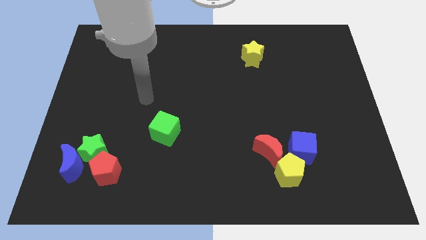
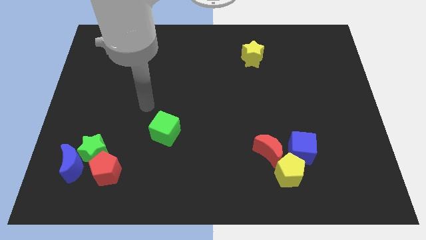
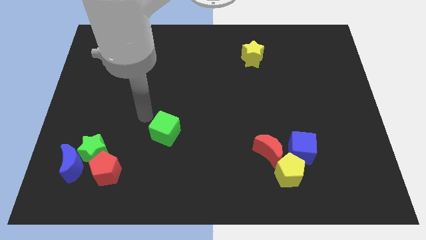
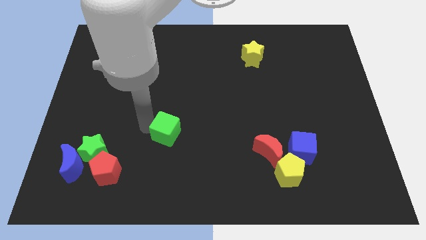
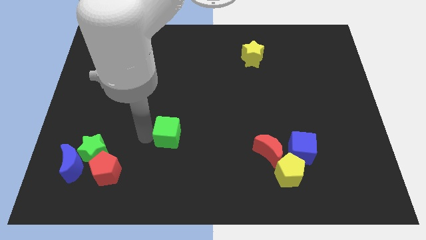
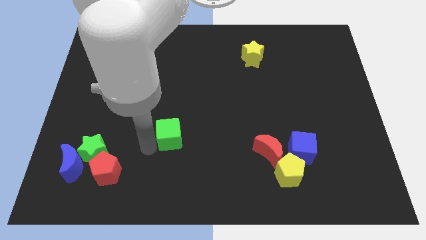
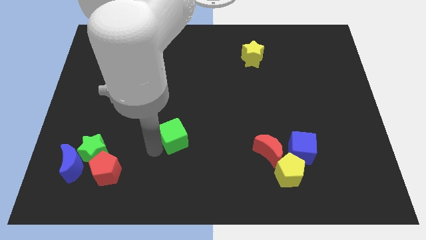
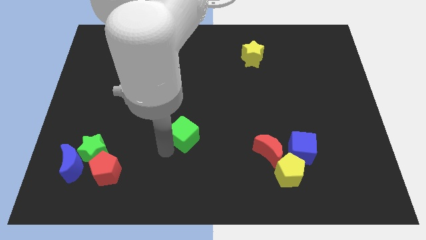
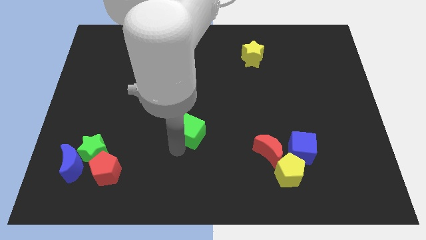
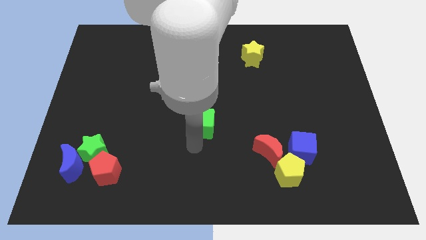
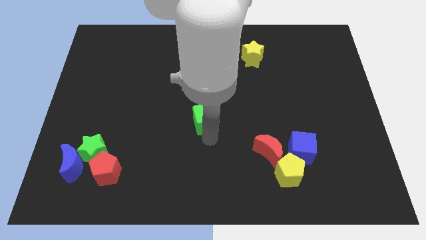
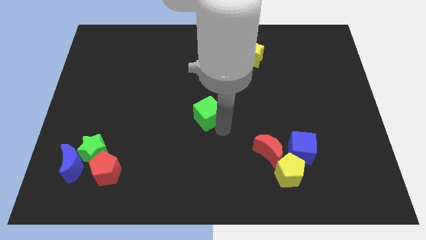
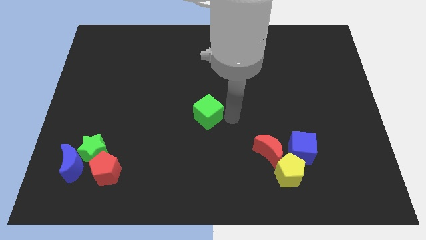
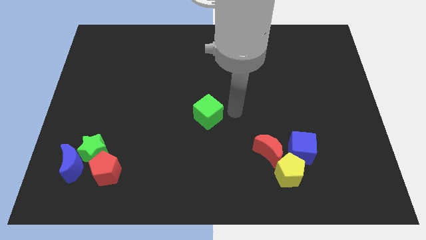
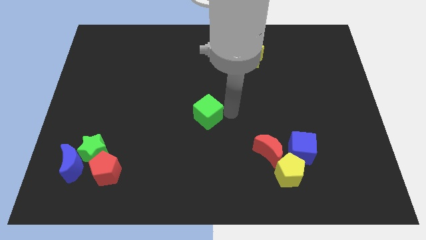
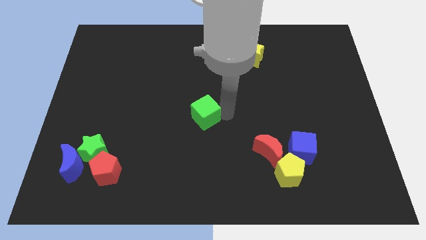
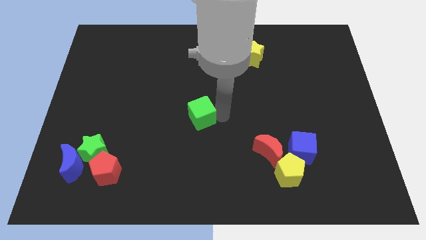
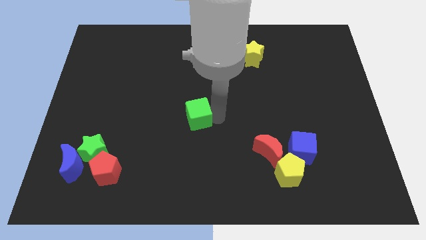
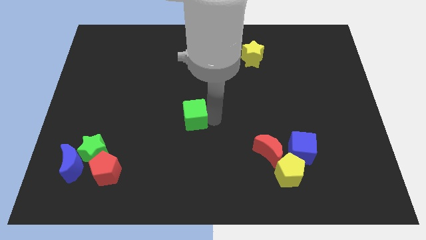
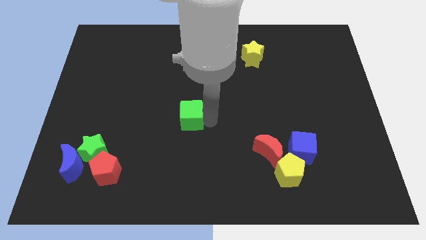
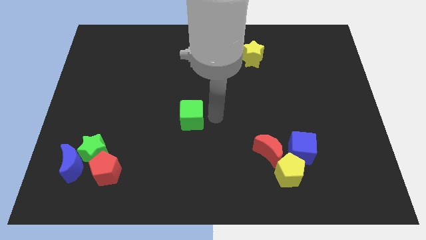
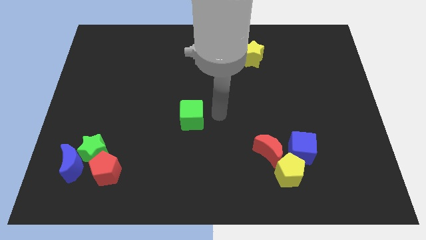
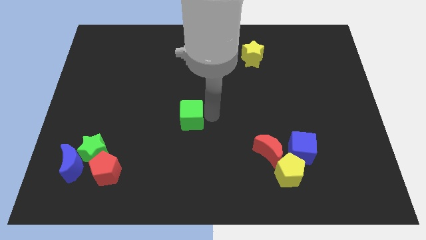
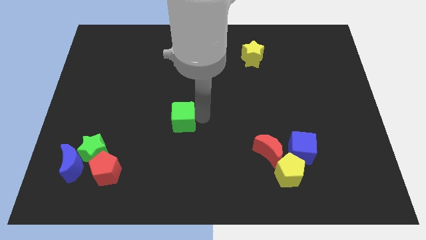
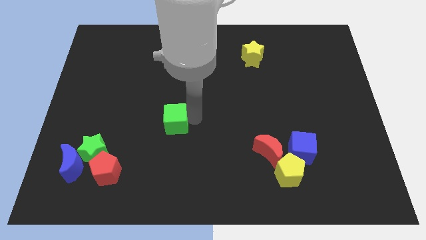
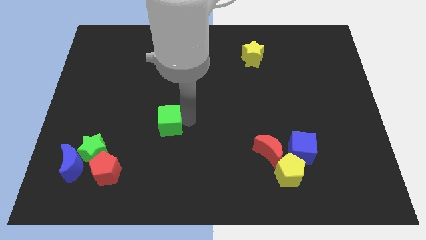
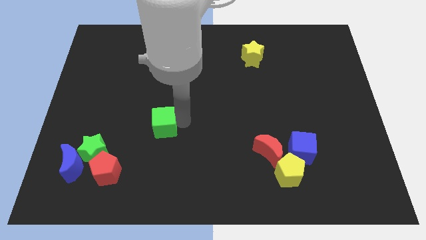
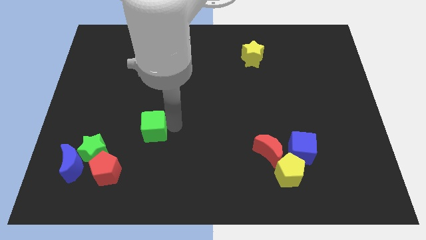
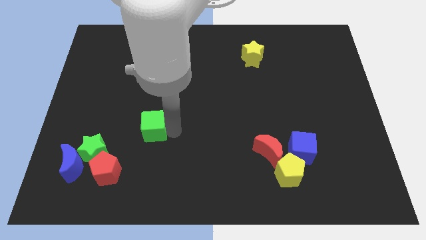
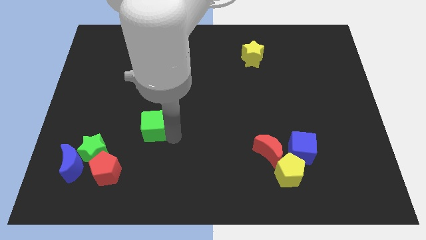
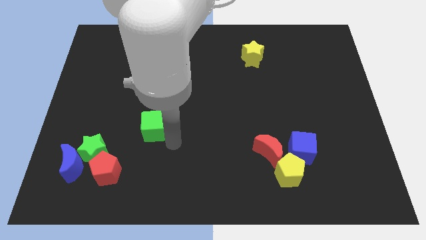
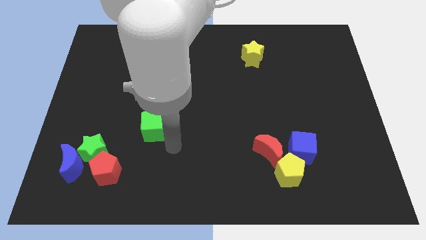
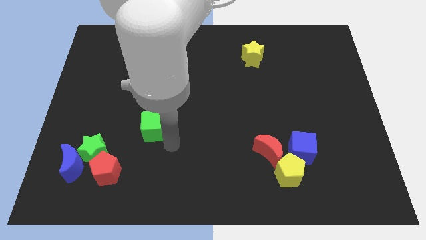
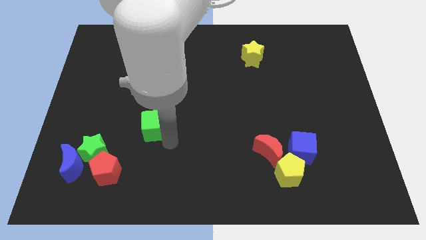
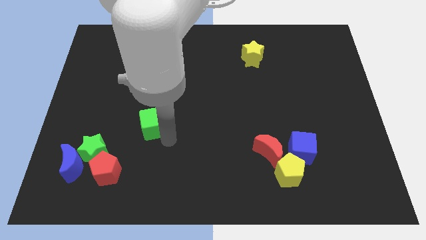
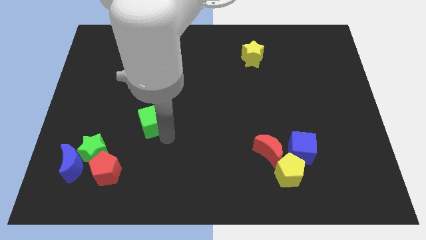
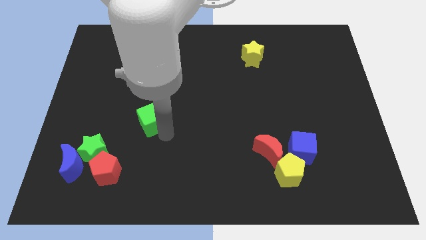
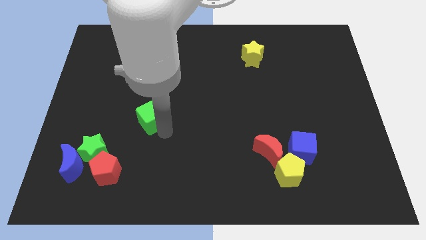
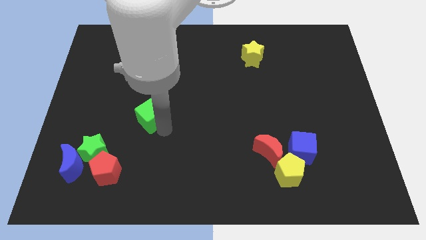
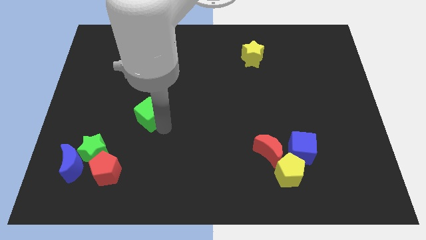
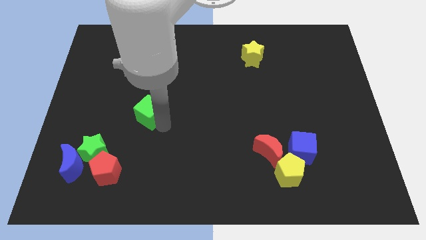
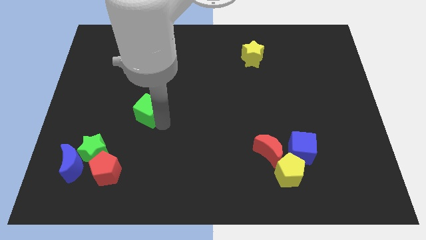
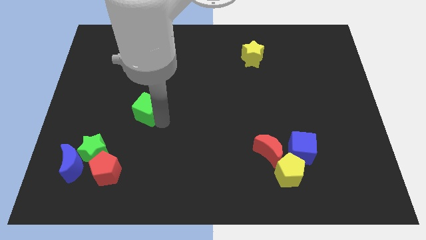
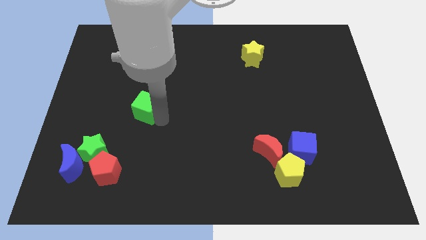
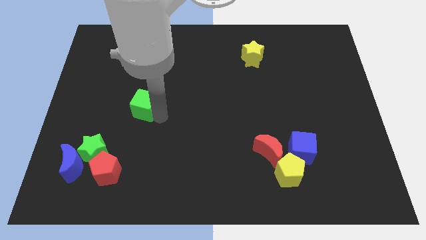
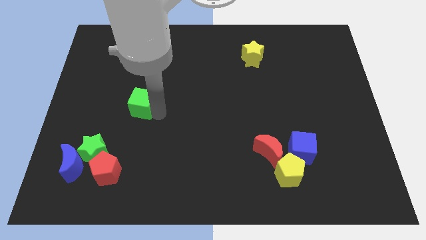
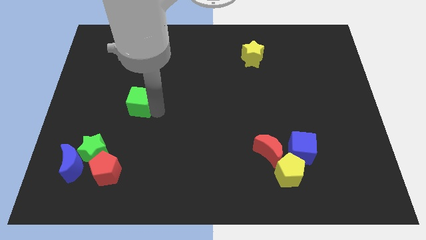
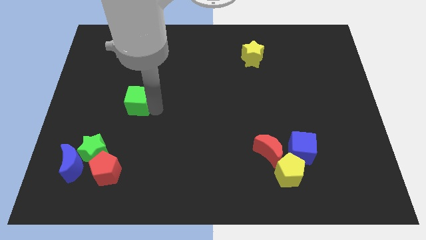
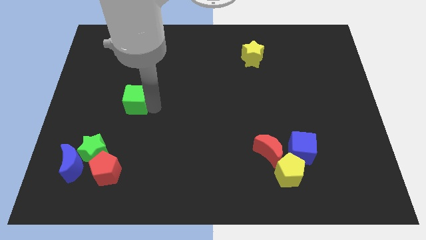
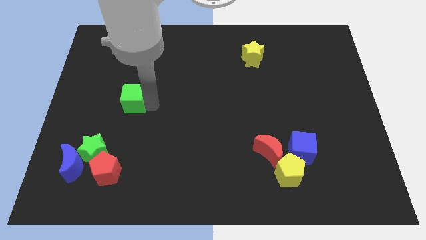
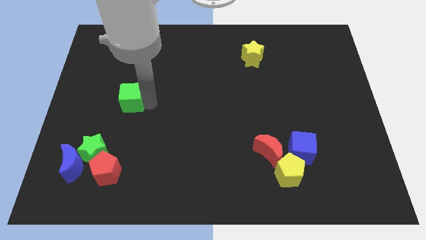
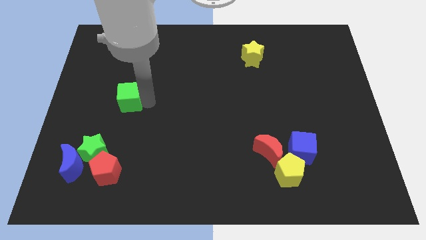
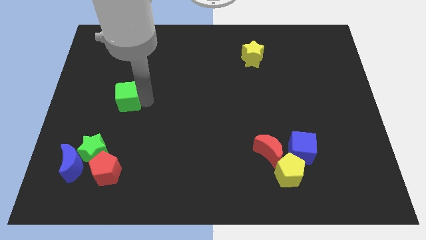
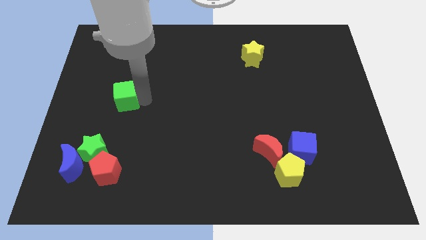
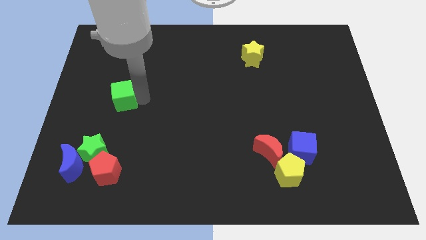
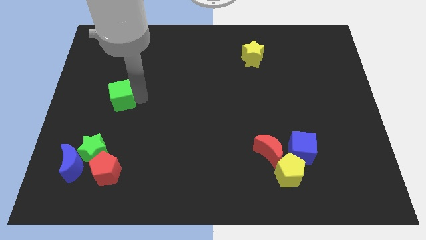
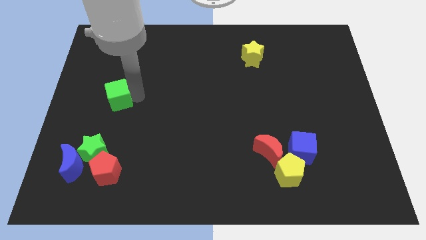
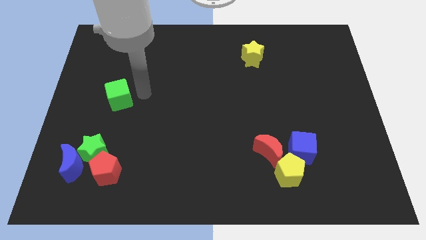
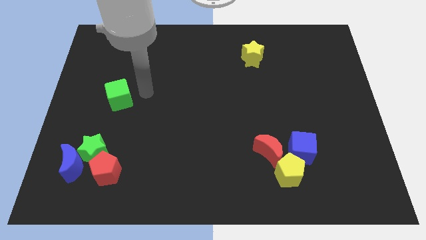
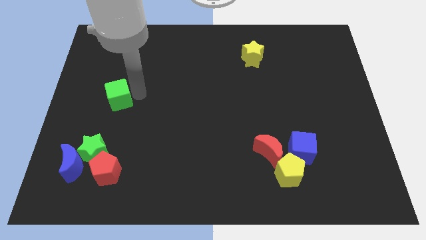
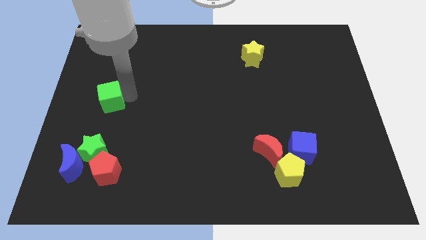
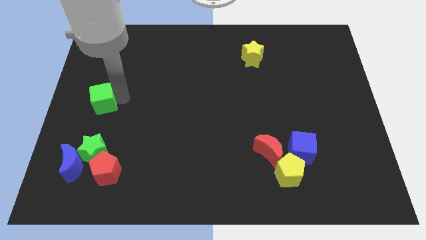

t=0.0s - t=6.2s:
put the green cube to the left side of the board

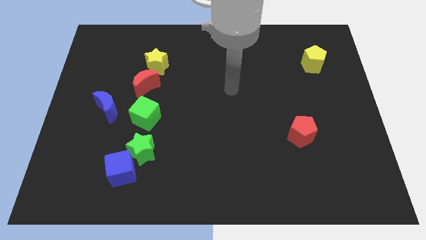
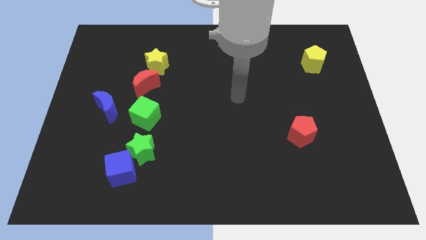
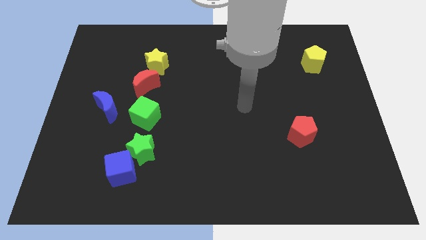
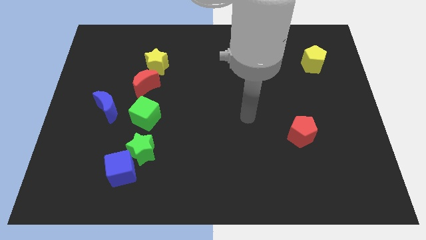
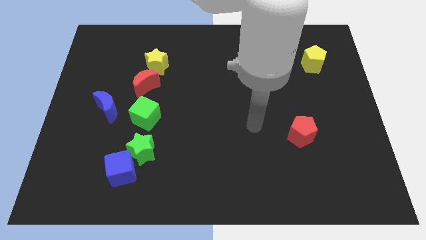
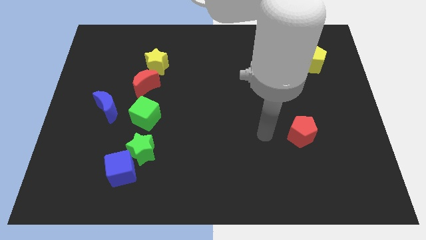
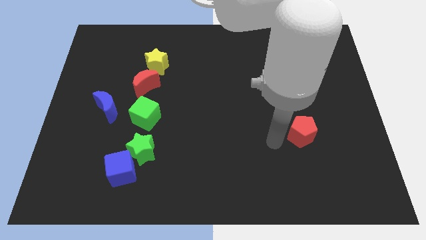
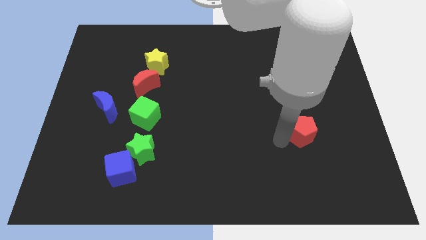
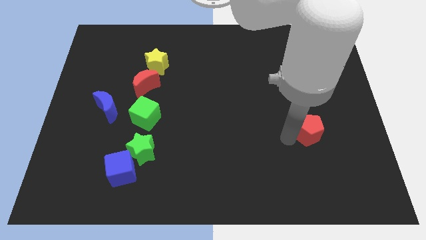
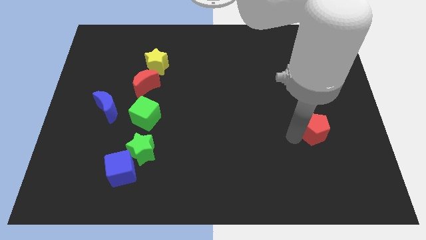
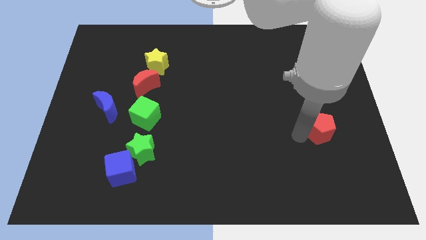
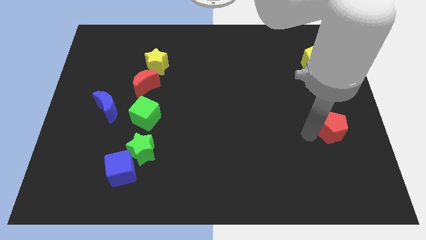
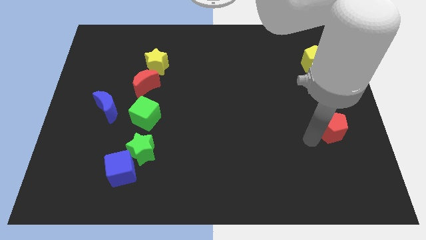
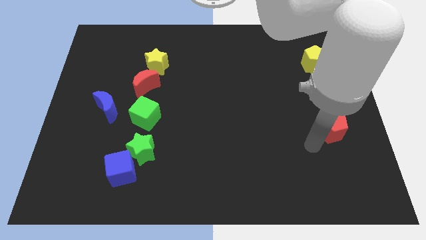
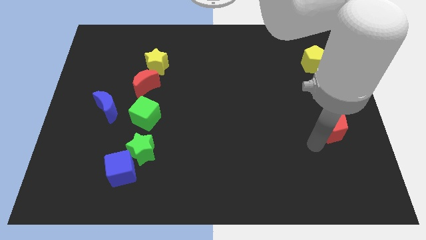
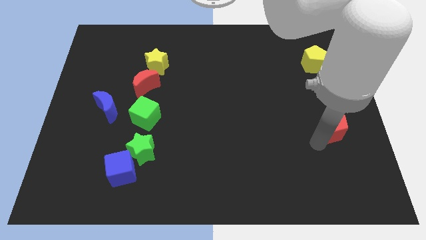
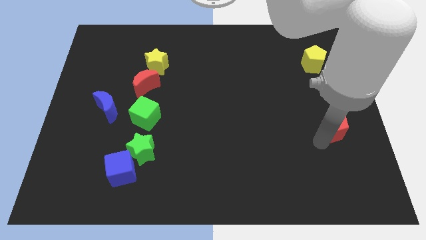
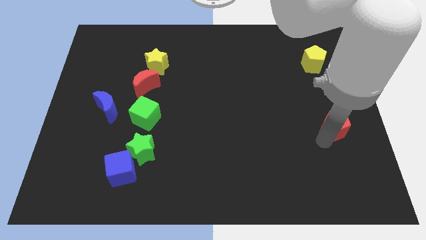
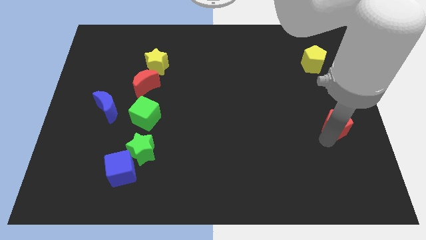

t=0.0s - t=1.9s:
push the red pentagon to the right side
